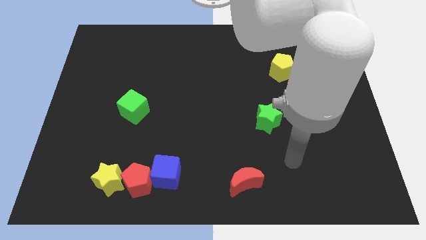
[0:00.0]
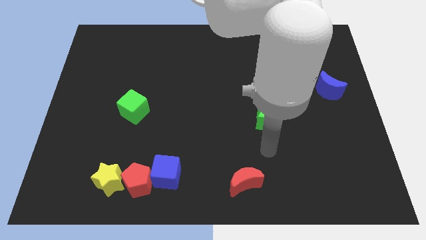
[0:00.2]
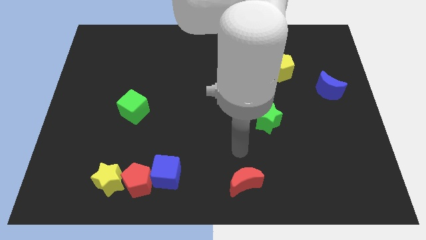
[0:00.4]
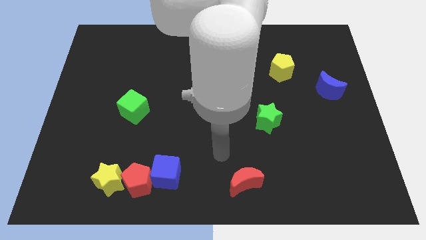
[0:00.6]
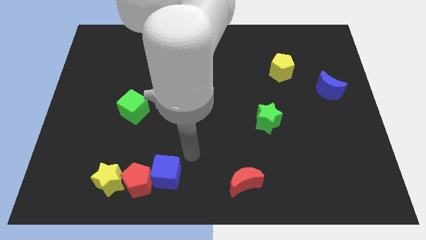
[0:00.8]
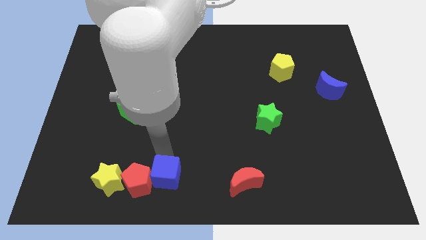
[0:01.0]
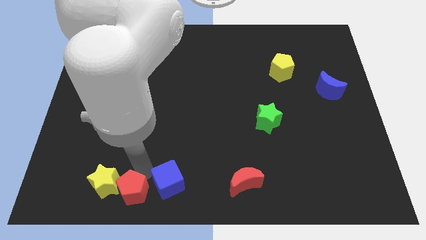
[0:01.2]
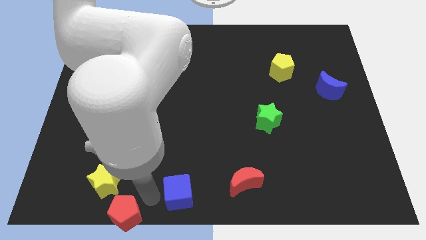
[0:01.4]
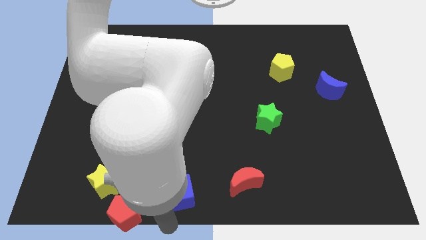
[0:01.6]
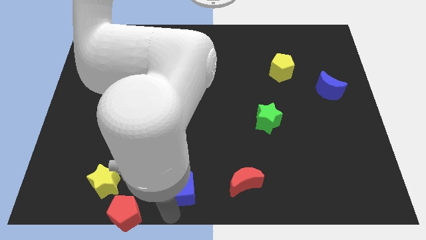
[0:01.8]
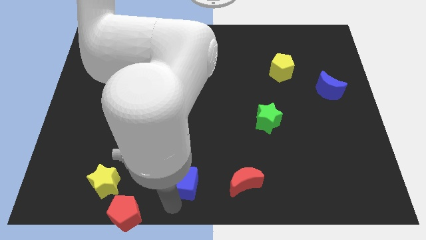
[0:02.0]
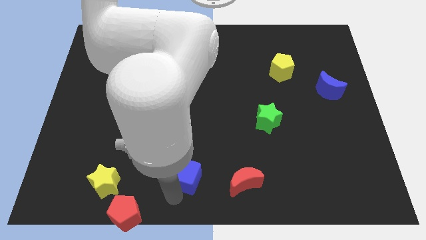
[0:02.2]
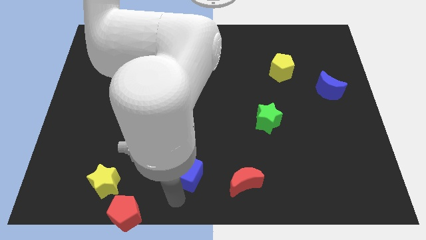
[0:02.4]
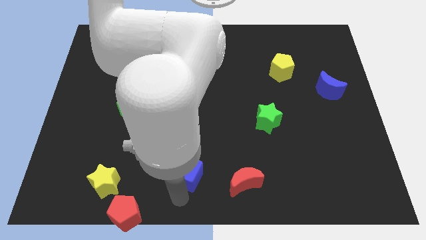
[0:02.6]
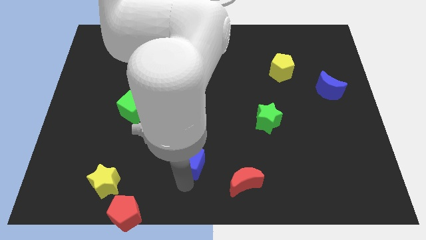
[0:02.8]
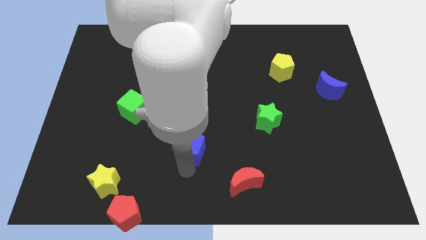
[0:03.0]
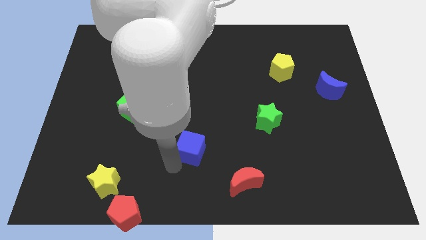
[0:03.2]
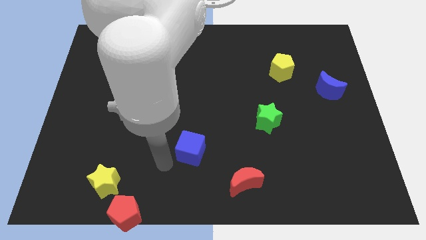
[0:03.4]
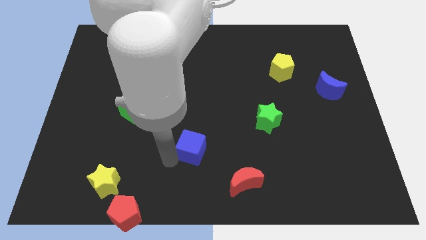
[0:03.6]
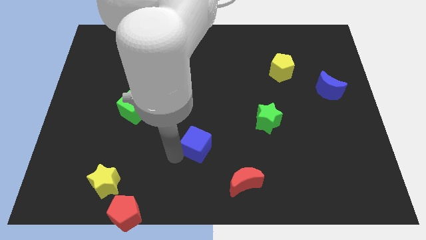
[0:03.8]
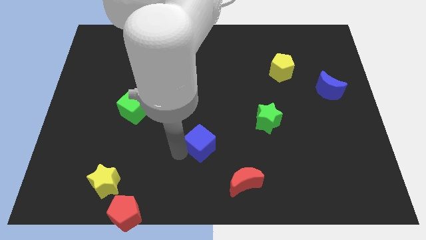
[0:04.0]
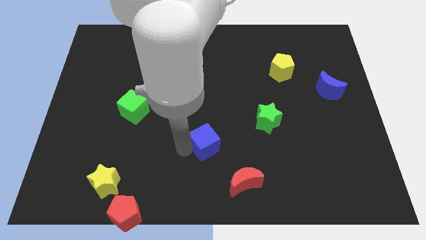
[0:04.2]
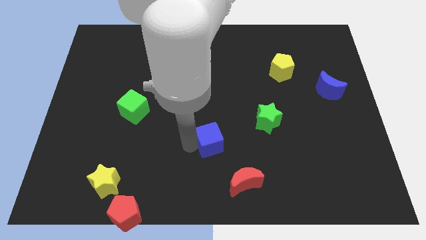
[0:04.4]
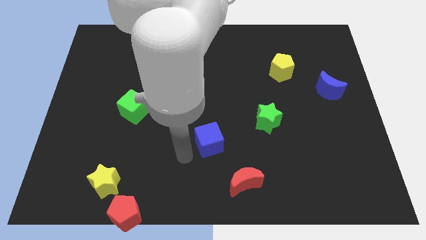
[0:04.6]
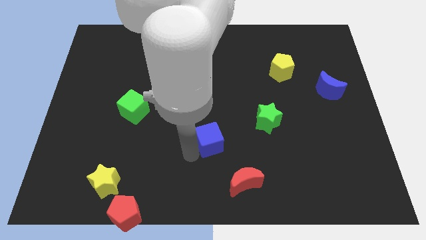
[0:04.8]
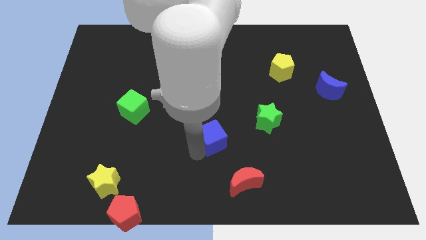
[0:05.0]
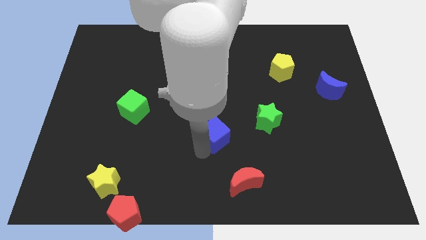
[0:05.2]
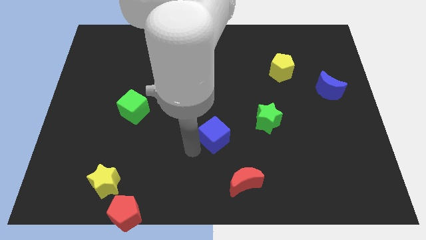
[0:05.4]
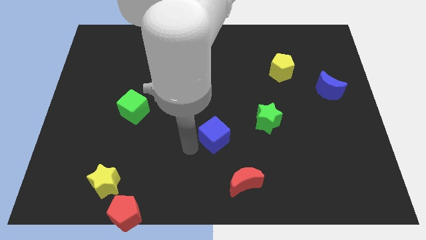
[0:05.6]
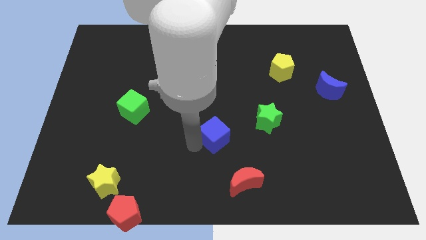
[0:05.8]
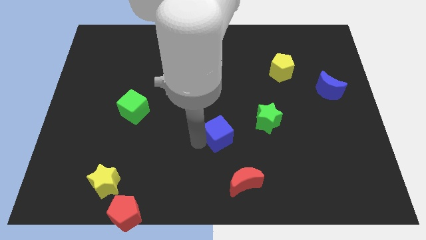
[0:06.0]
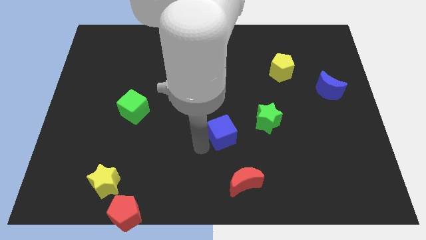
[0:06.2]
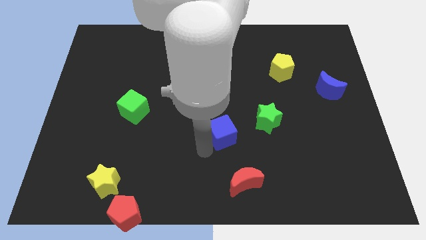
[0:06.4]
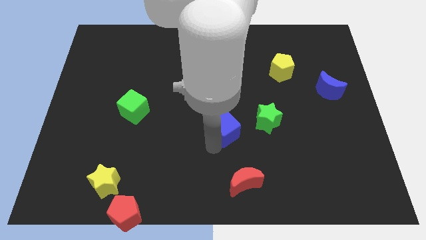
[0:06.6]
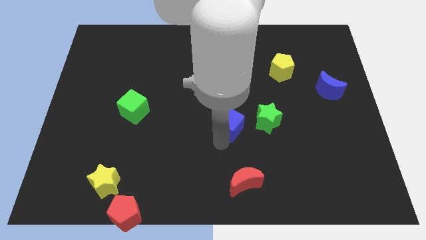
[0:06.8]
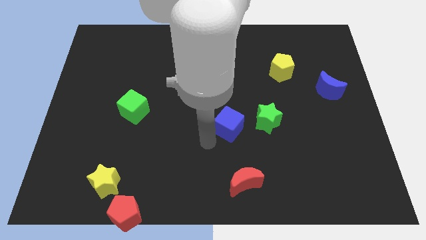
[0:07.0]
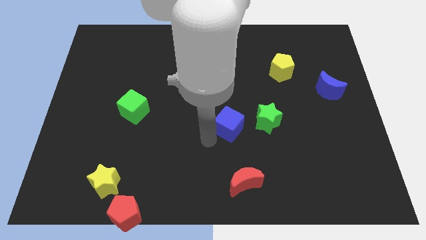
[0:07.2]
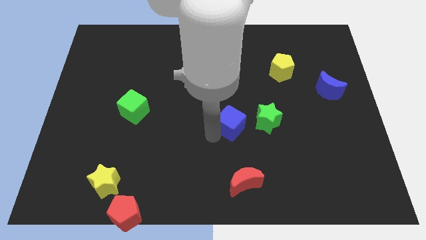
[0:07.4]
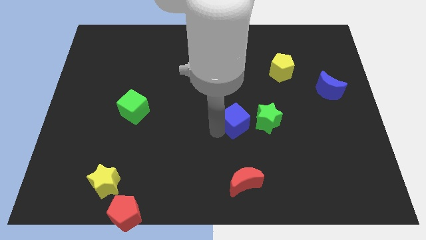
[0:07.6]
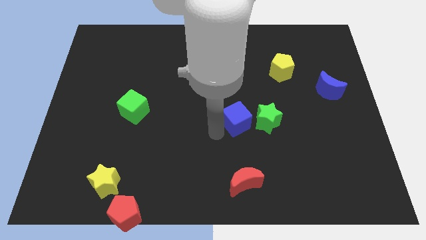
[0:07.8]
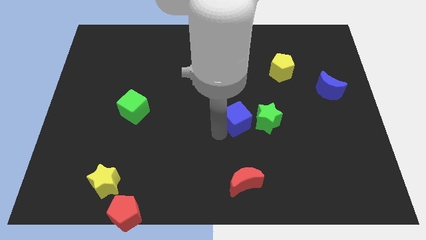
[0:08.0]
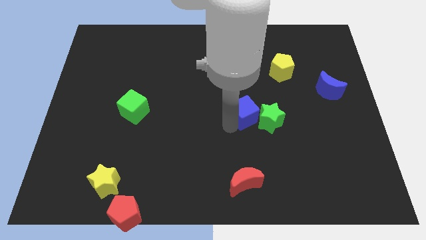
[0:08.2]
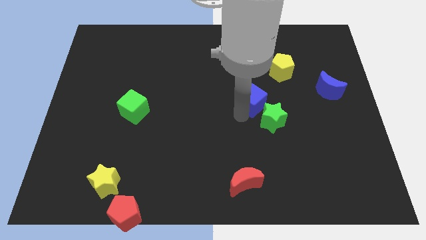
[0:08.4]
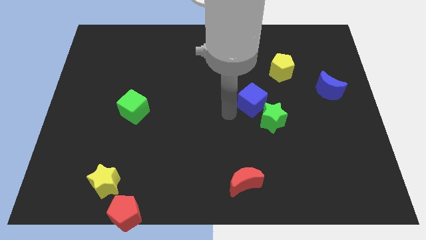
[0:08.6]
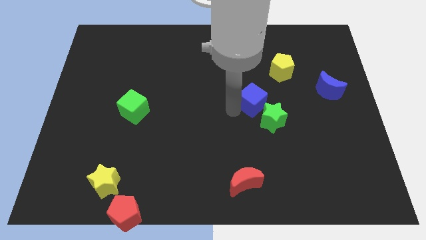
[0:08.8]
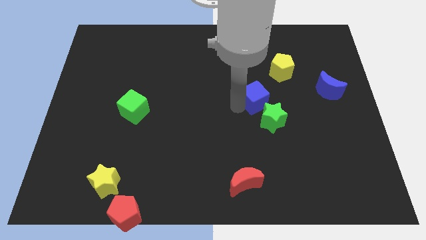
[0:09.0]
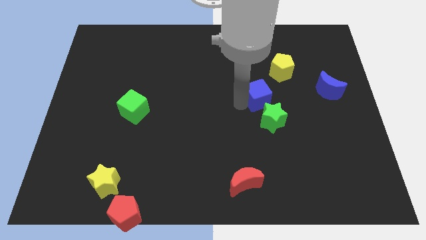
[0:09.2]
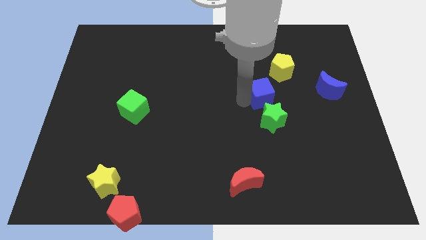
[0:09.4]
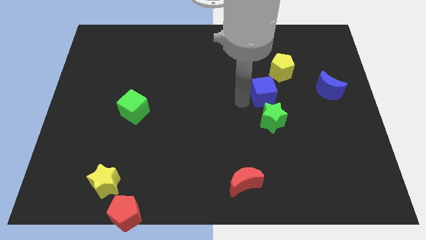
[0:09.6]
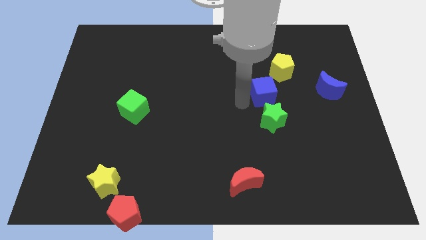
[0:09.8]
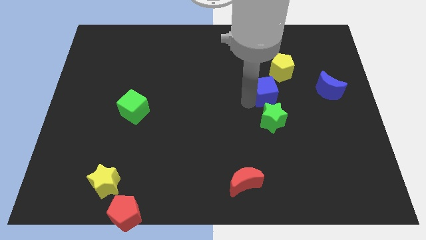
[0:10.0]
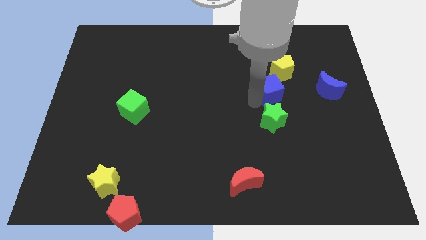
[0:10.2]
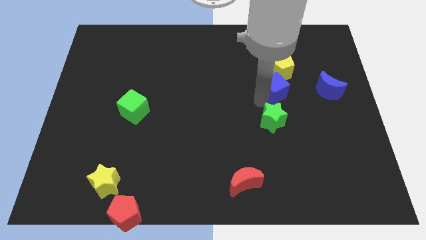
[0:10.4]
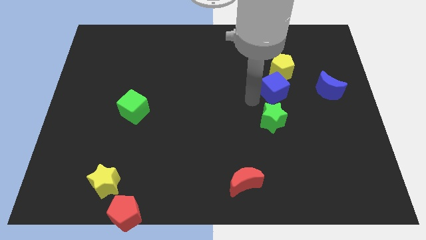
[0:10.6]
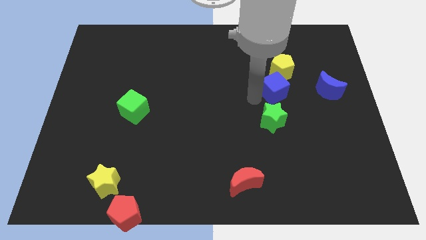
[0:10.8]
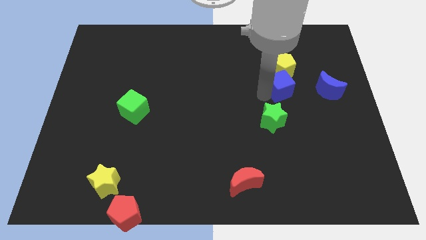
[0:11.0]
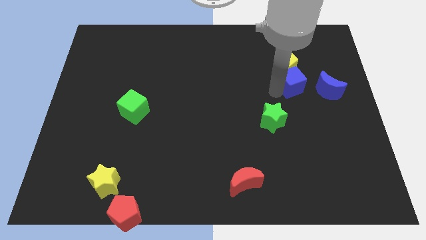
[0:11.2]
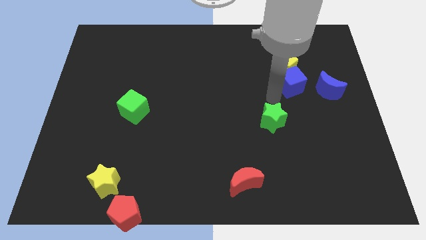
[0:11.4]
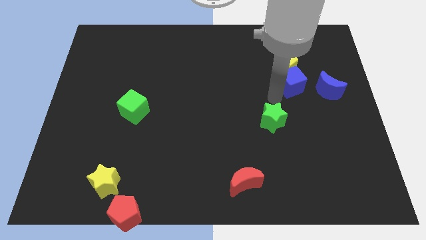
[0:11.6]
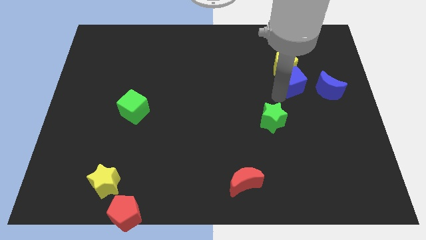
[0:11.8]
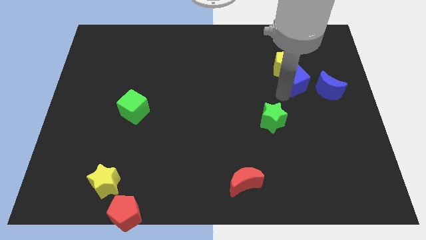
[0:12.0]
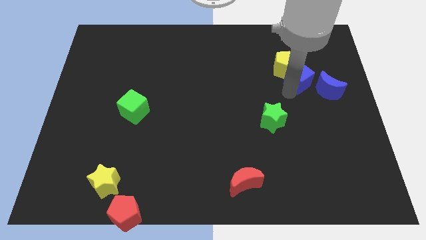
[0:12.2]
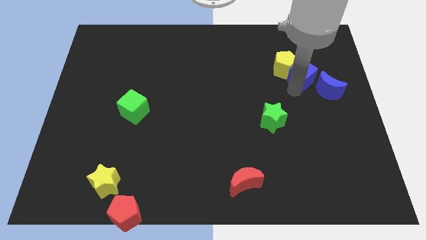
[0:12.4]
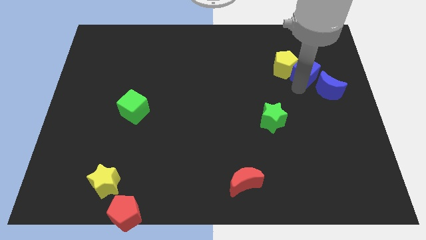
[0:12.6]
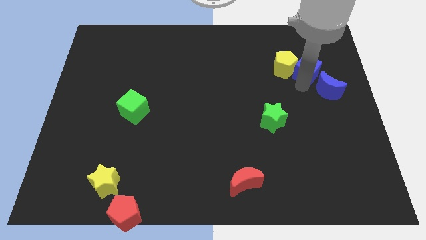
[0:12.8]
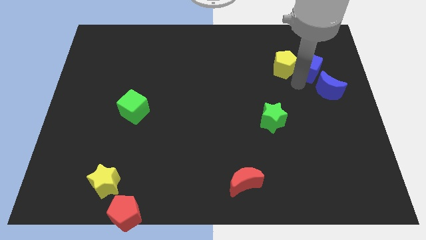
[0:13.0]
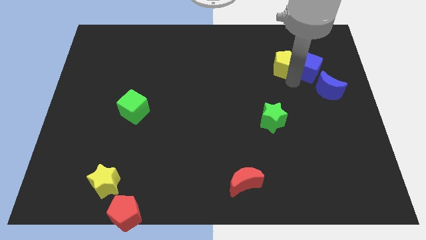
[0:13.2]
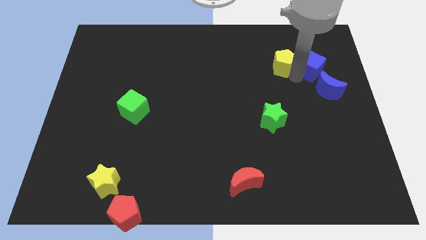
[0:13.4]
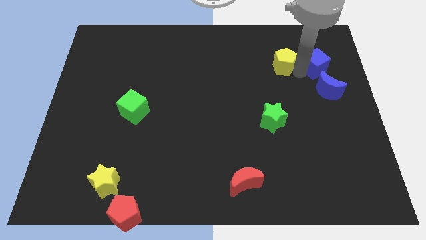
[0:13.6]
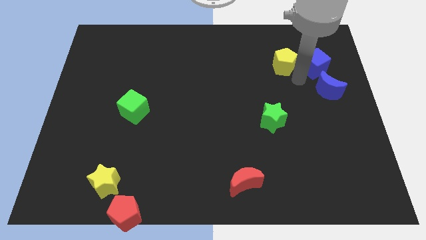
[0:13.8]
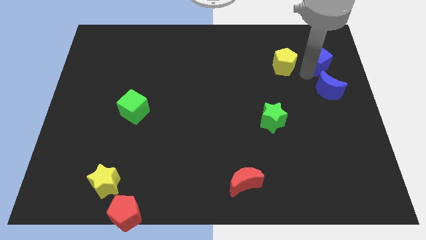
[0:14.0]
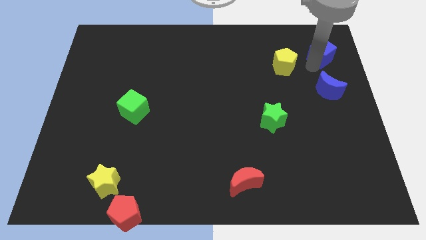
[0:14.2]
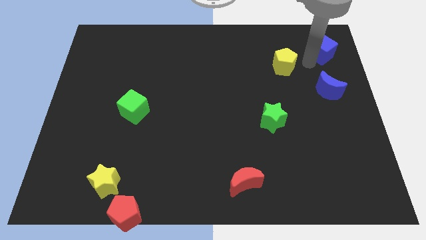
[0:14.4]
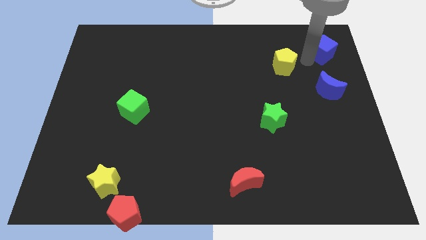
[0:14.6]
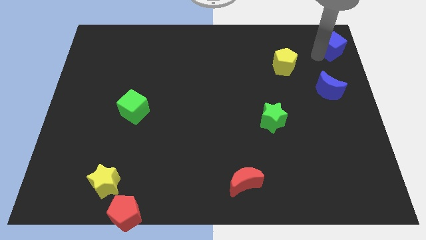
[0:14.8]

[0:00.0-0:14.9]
put the blue cube to the top right
